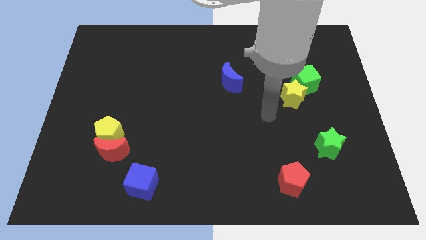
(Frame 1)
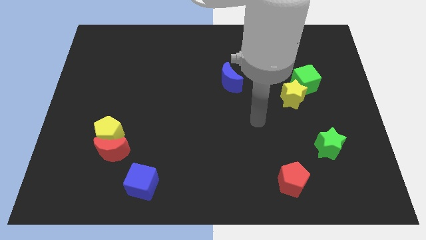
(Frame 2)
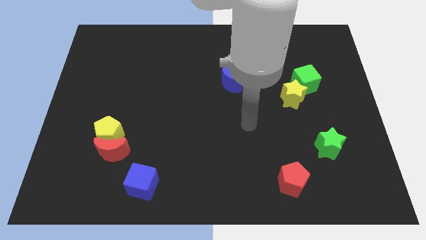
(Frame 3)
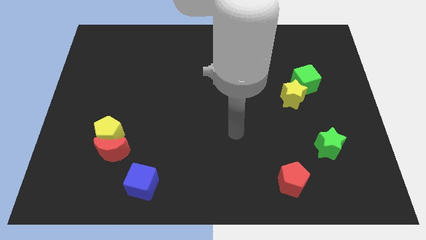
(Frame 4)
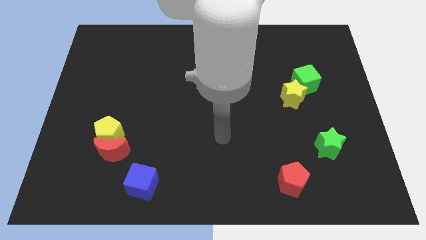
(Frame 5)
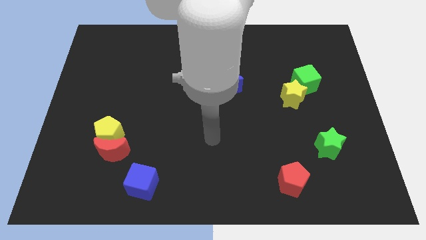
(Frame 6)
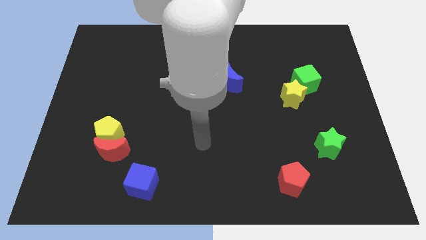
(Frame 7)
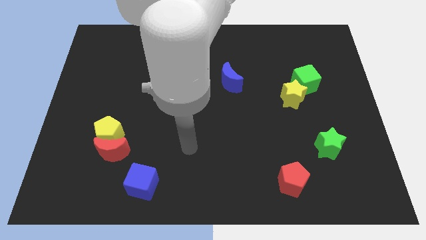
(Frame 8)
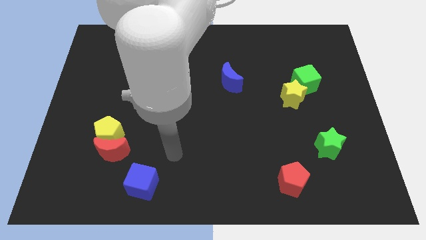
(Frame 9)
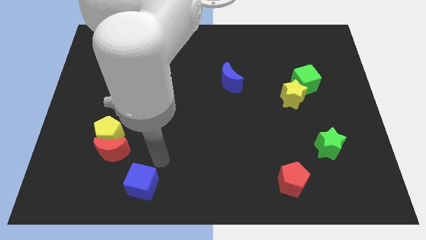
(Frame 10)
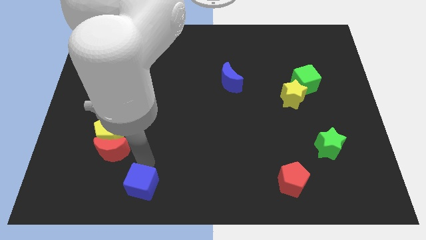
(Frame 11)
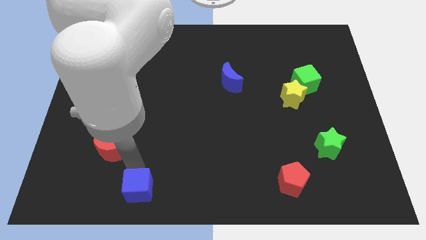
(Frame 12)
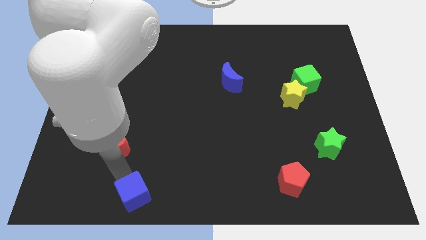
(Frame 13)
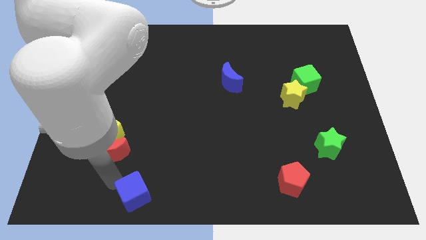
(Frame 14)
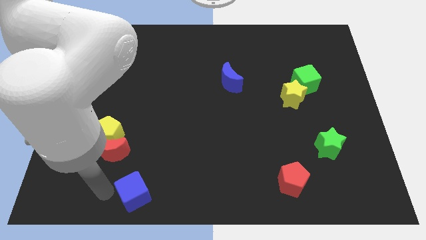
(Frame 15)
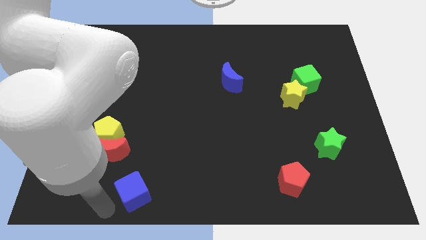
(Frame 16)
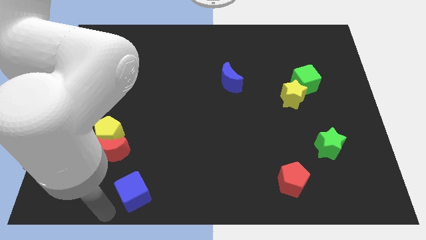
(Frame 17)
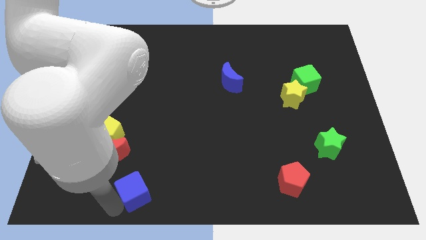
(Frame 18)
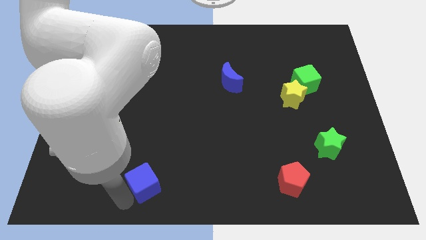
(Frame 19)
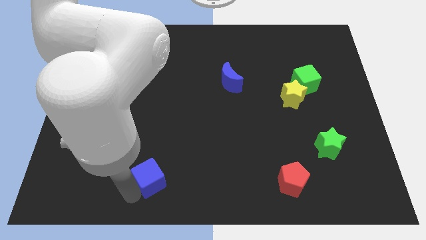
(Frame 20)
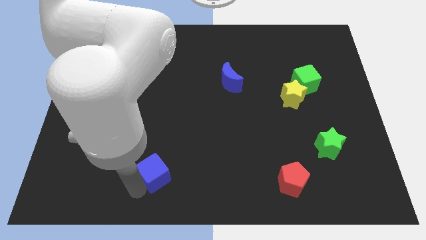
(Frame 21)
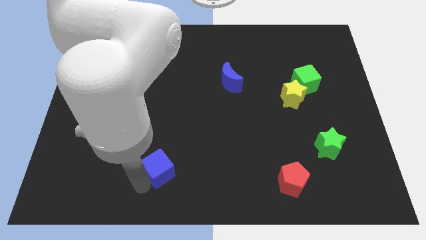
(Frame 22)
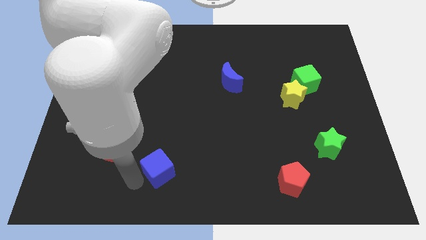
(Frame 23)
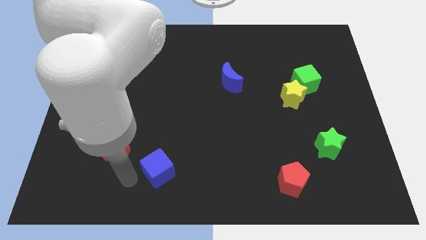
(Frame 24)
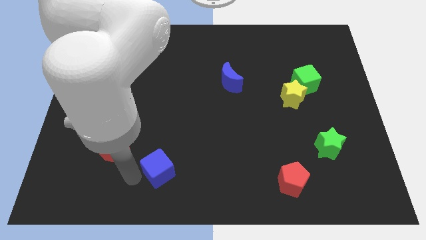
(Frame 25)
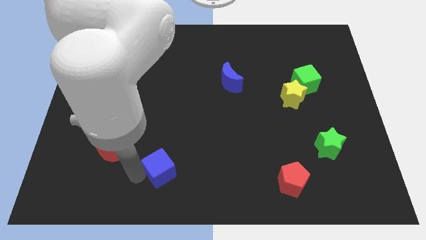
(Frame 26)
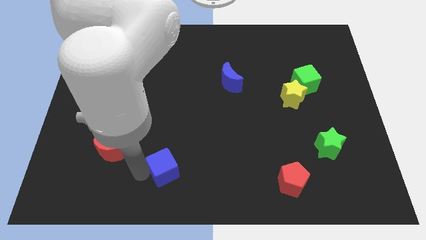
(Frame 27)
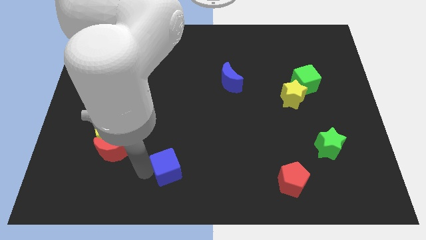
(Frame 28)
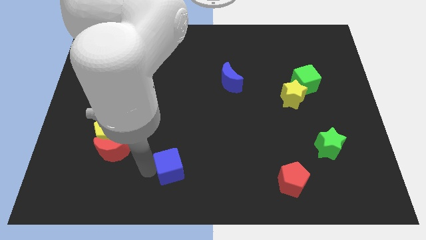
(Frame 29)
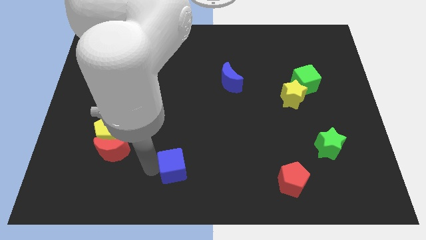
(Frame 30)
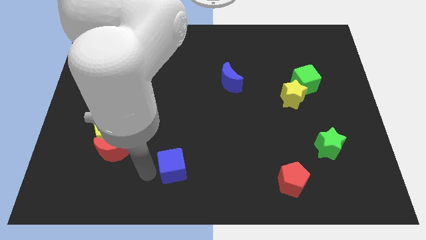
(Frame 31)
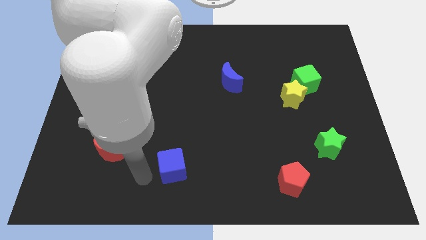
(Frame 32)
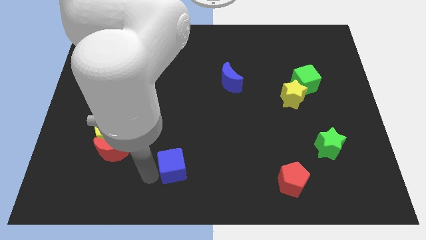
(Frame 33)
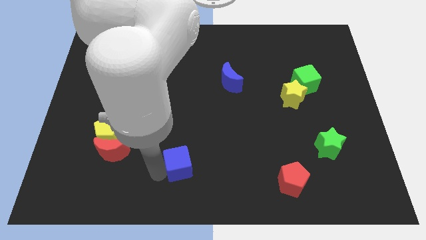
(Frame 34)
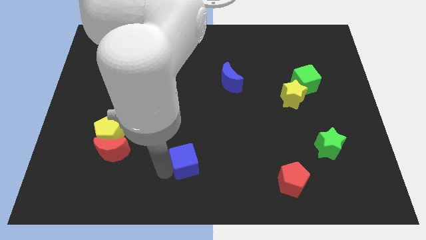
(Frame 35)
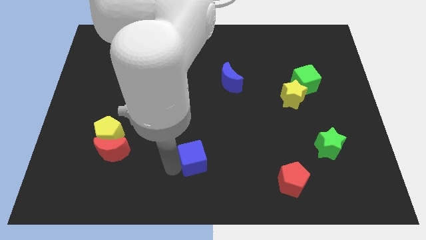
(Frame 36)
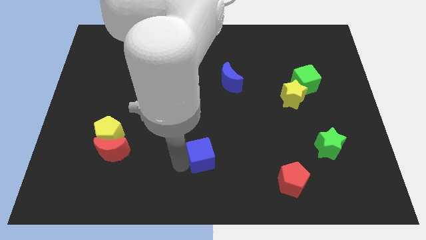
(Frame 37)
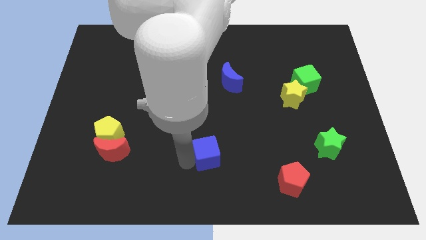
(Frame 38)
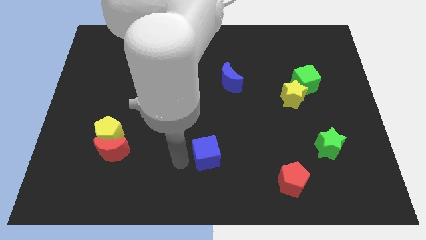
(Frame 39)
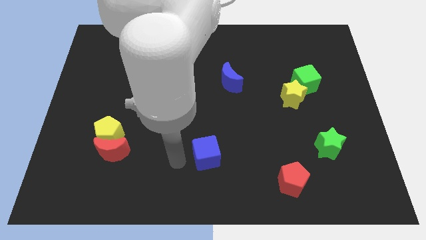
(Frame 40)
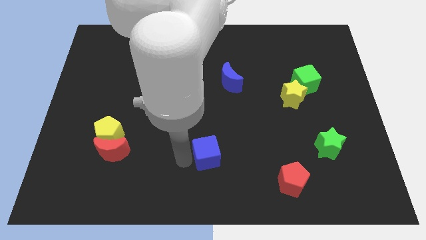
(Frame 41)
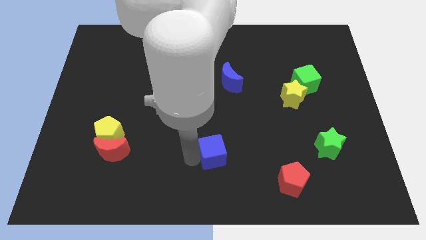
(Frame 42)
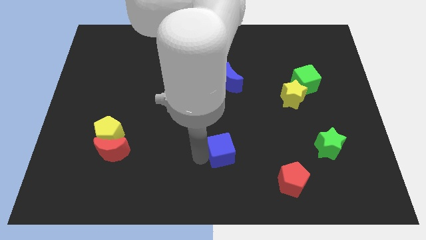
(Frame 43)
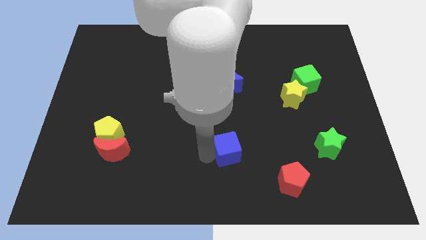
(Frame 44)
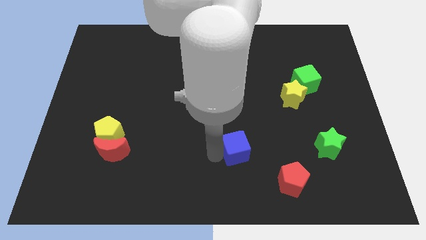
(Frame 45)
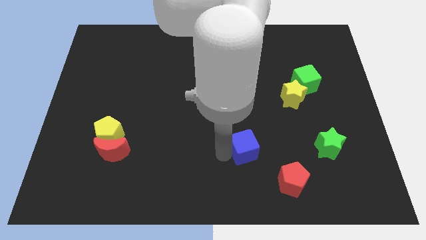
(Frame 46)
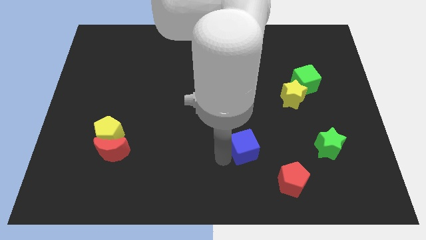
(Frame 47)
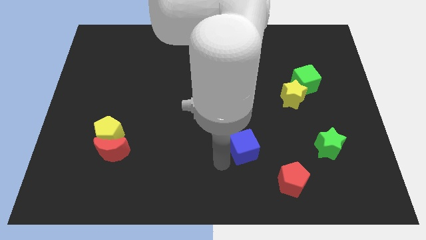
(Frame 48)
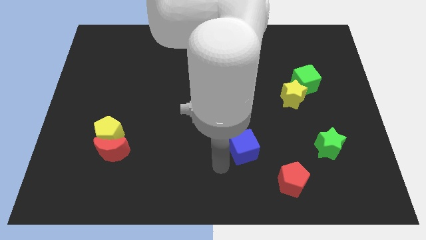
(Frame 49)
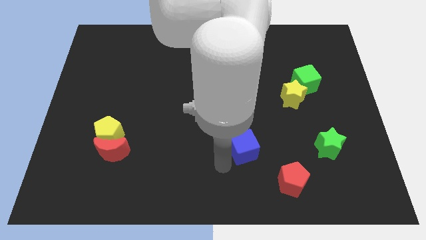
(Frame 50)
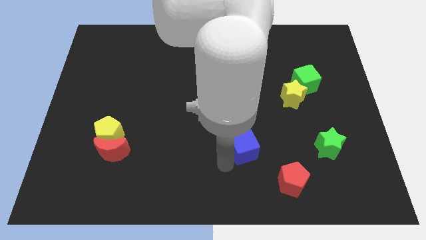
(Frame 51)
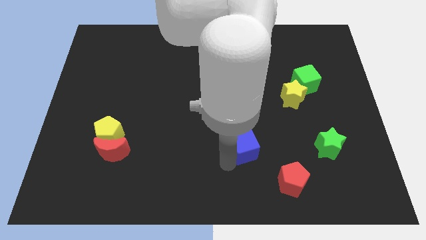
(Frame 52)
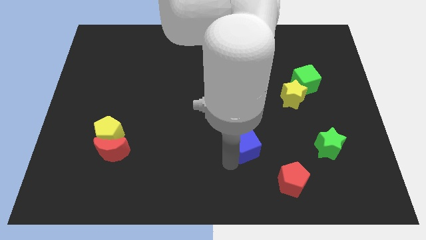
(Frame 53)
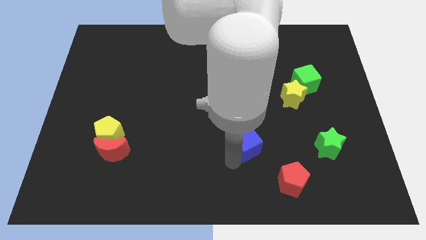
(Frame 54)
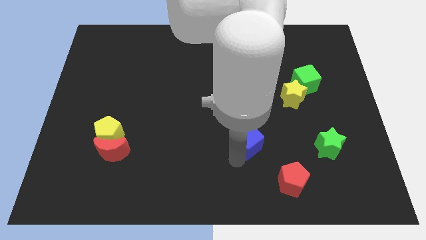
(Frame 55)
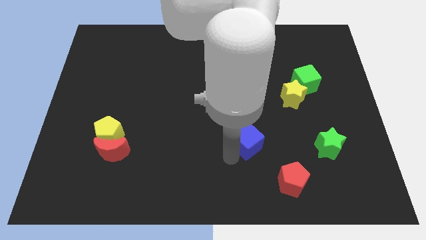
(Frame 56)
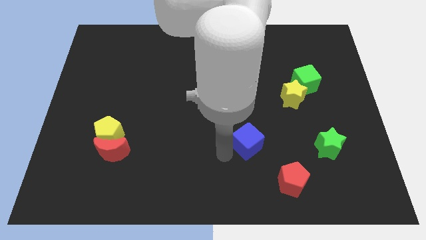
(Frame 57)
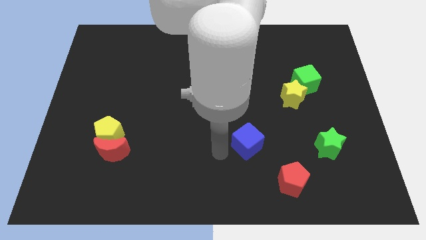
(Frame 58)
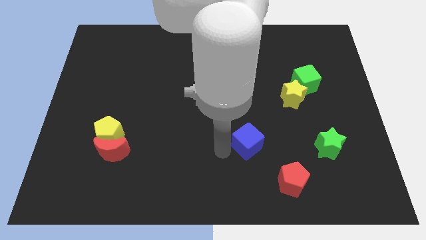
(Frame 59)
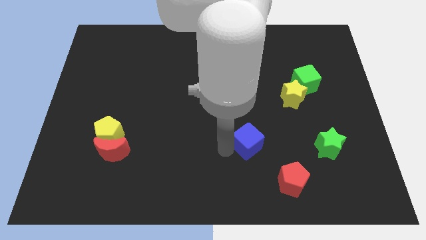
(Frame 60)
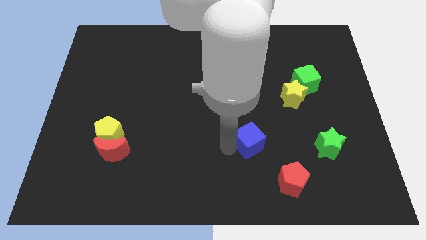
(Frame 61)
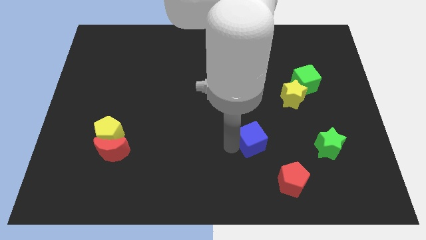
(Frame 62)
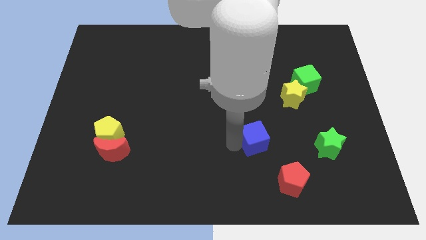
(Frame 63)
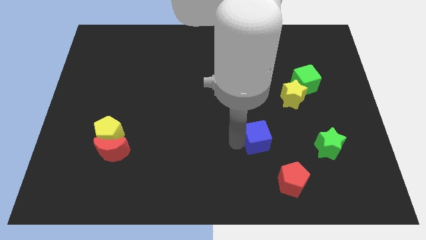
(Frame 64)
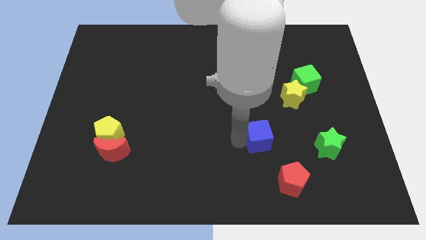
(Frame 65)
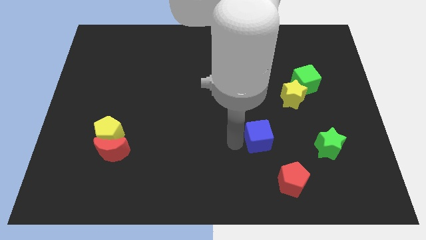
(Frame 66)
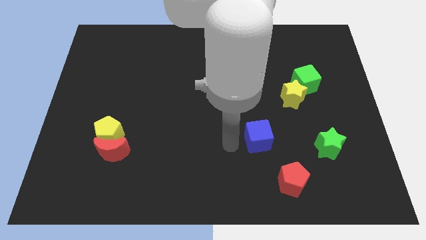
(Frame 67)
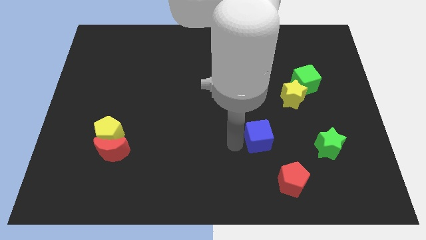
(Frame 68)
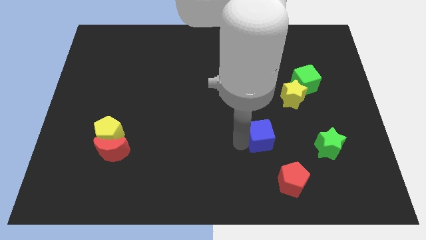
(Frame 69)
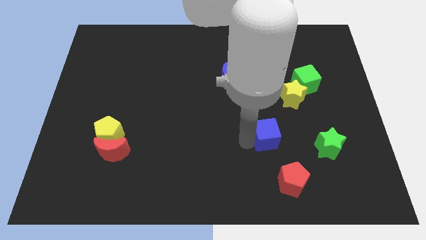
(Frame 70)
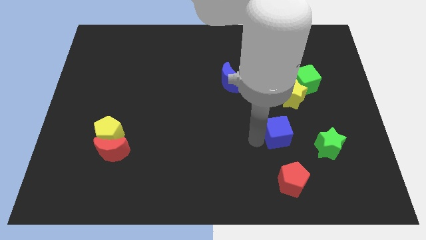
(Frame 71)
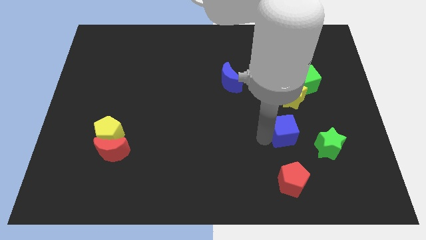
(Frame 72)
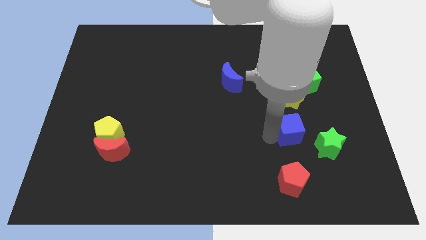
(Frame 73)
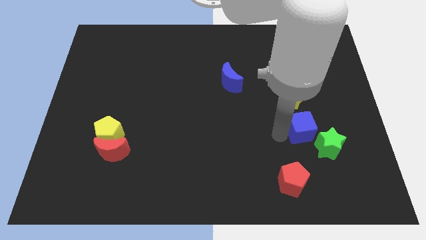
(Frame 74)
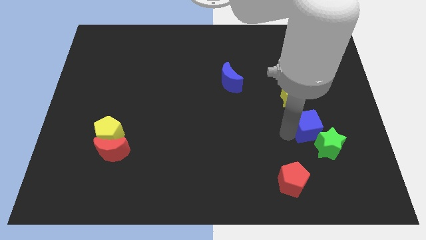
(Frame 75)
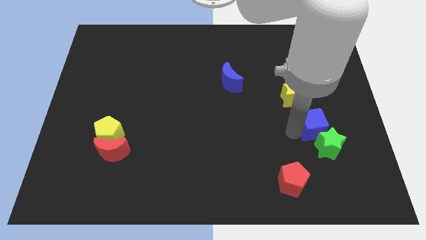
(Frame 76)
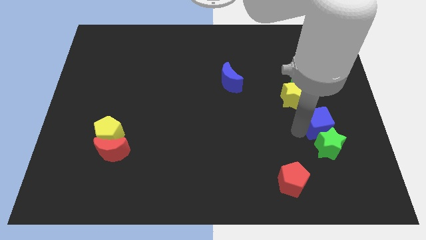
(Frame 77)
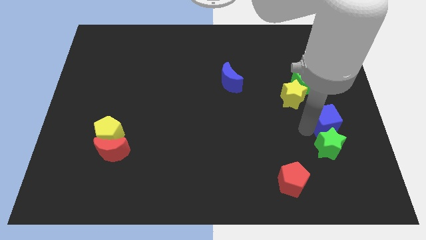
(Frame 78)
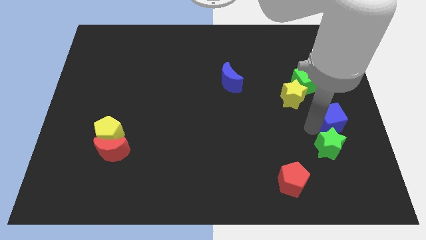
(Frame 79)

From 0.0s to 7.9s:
slide the blue cube to the center right
